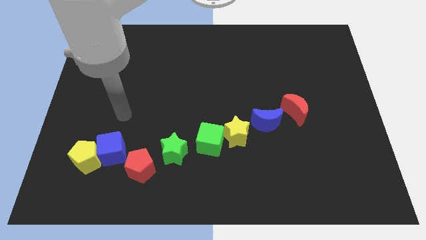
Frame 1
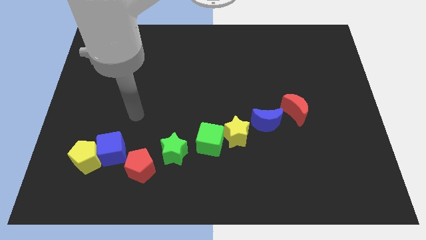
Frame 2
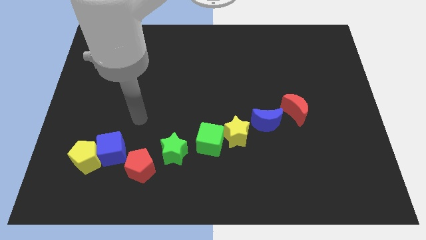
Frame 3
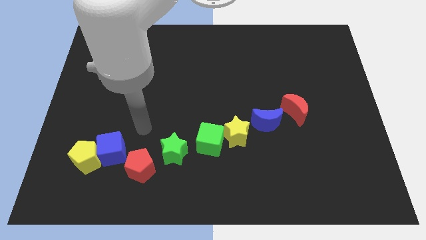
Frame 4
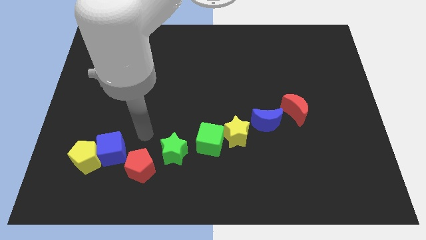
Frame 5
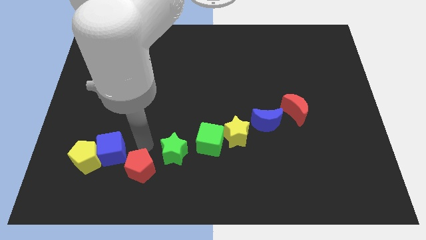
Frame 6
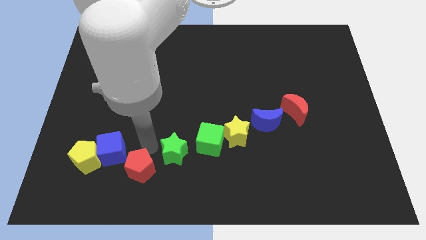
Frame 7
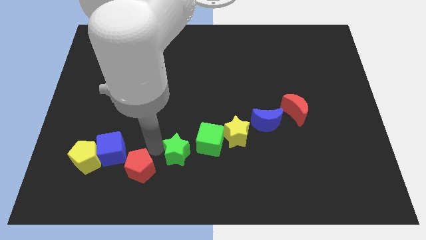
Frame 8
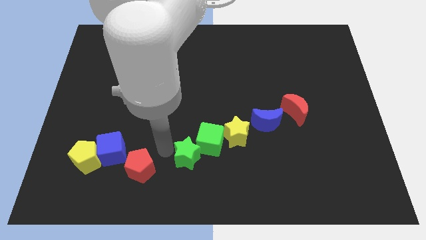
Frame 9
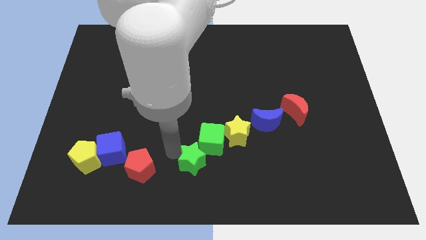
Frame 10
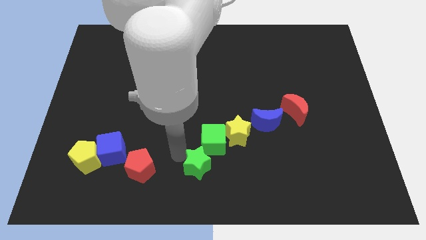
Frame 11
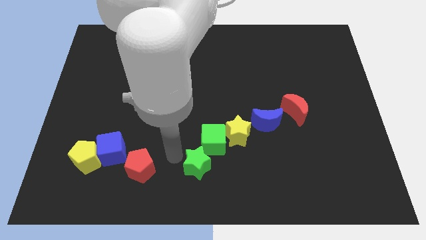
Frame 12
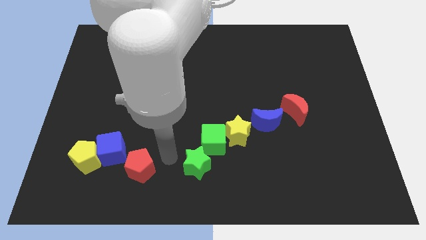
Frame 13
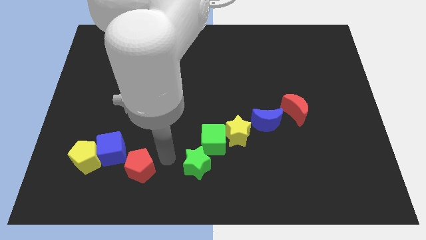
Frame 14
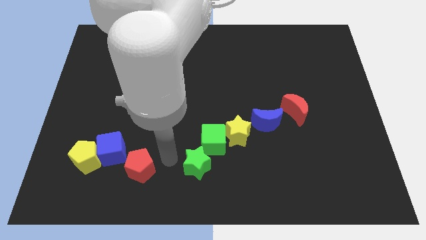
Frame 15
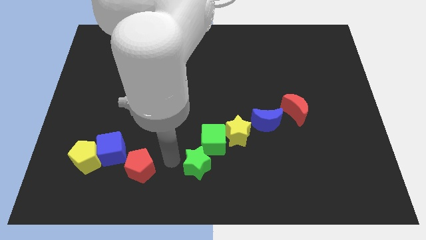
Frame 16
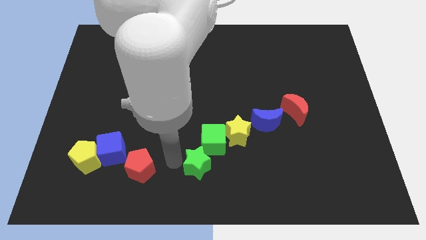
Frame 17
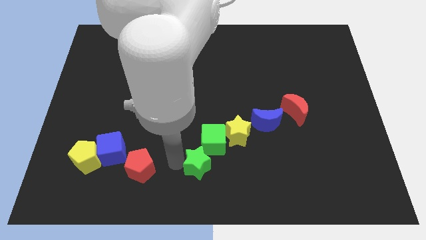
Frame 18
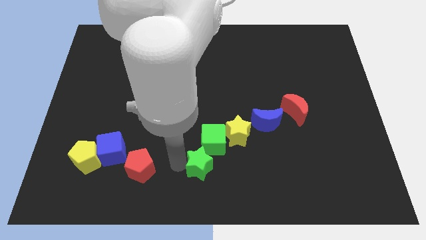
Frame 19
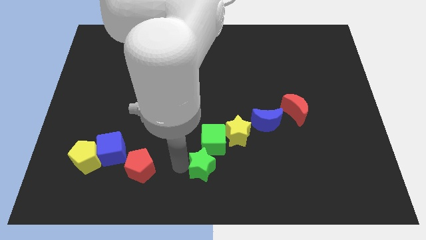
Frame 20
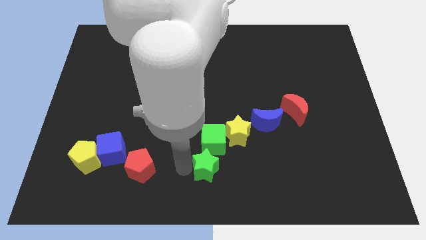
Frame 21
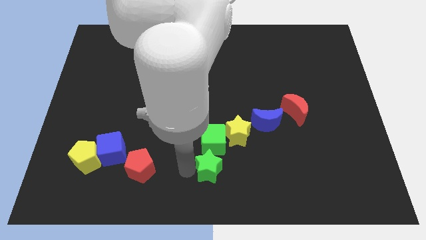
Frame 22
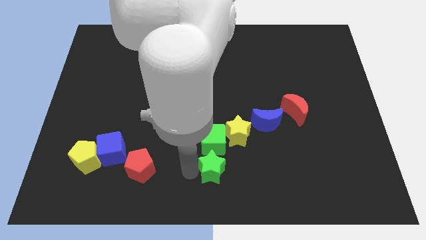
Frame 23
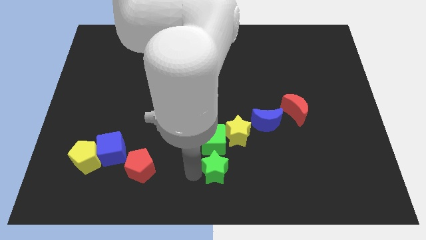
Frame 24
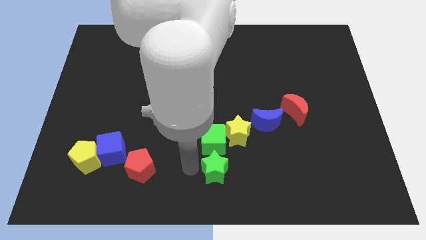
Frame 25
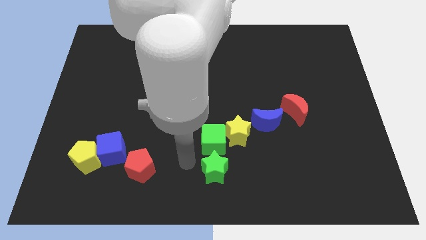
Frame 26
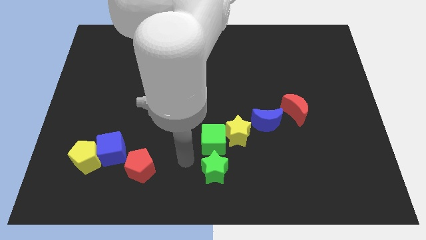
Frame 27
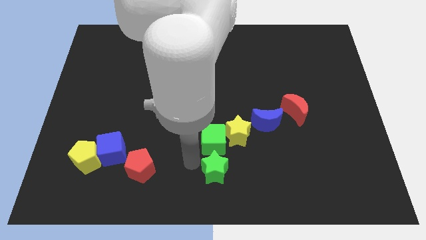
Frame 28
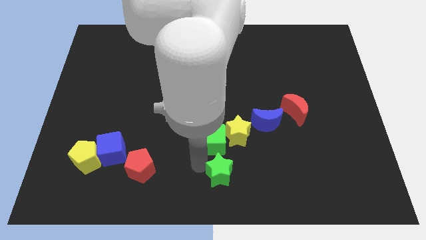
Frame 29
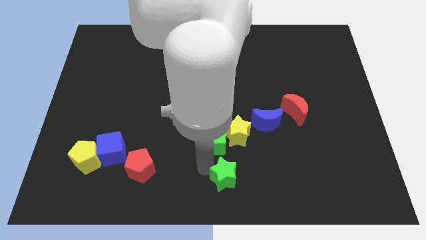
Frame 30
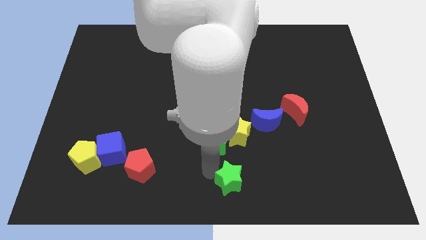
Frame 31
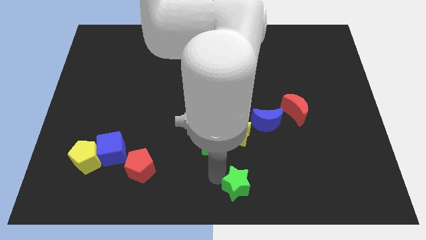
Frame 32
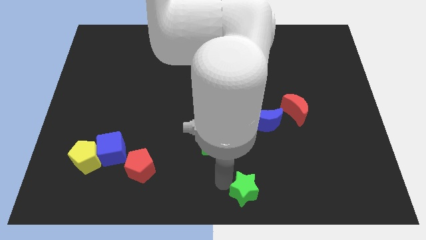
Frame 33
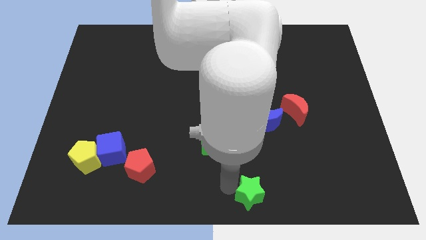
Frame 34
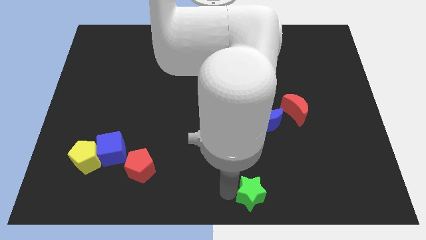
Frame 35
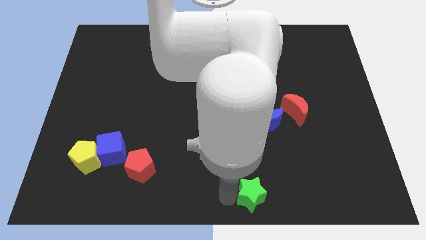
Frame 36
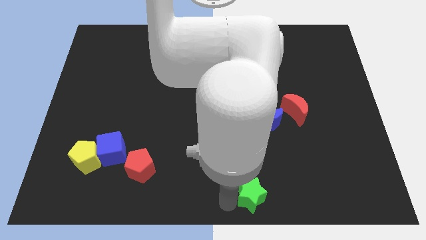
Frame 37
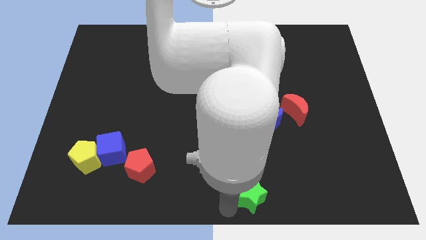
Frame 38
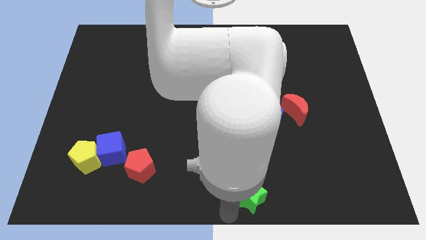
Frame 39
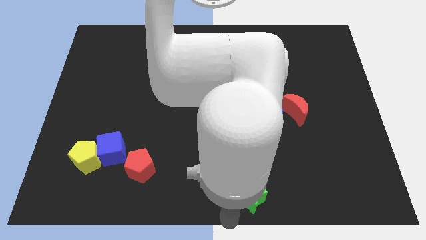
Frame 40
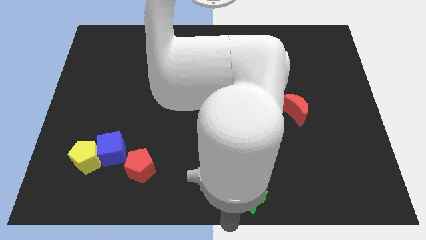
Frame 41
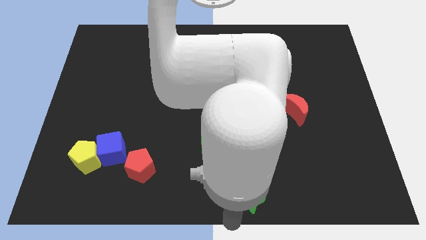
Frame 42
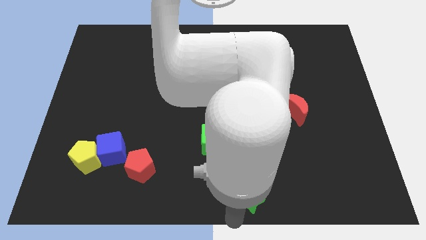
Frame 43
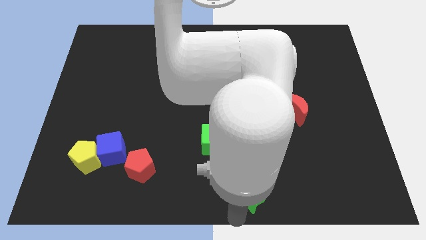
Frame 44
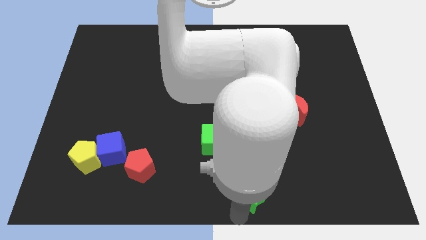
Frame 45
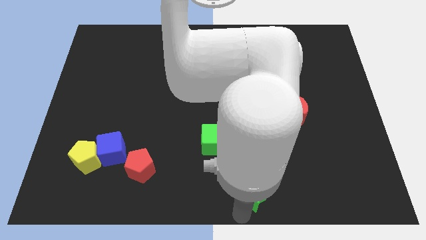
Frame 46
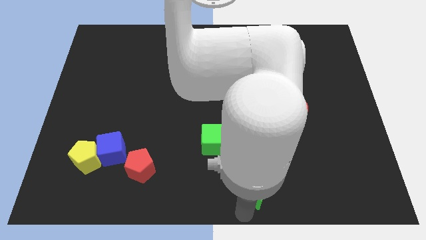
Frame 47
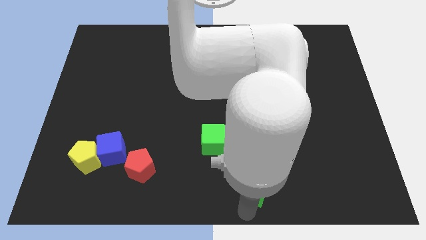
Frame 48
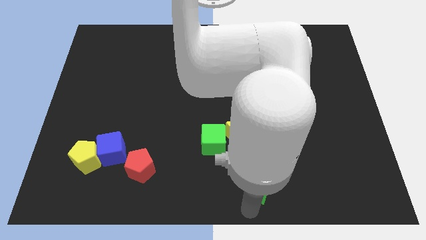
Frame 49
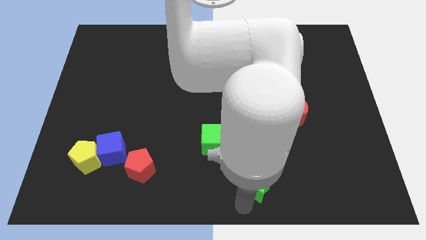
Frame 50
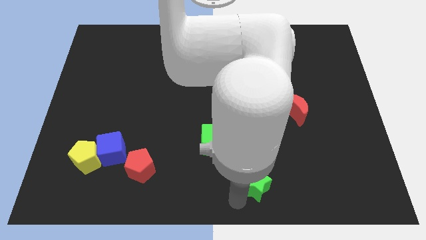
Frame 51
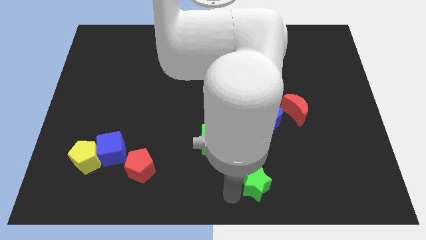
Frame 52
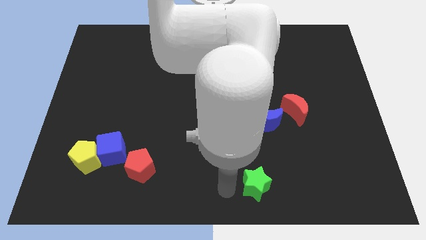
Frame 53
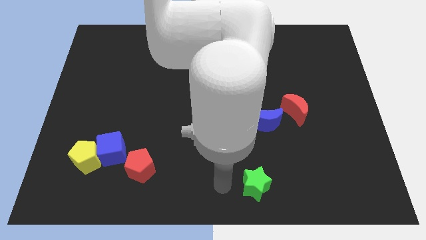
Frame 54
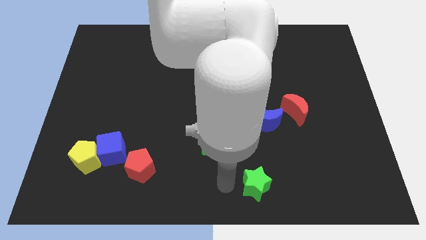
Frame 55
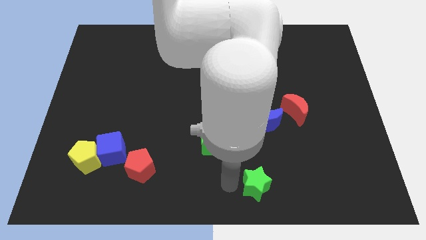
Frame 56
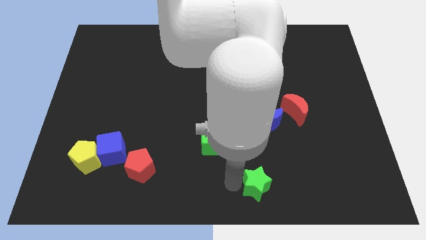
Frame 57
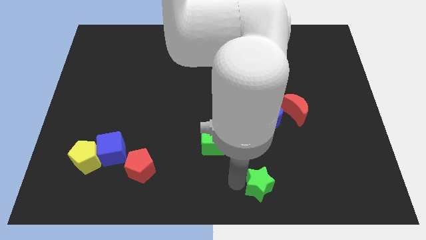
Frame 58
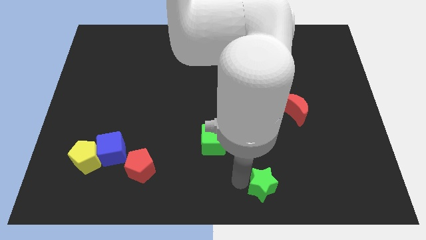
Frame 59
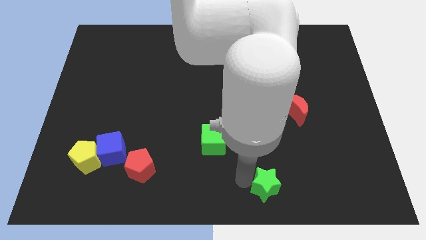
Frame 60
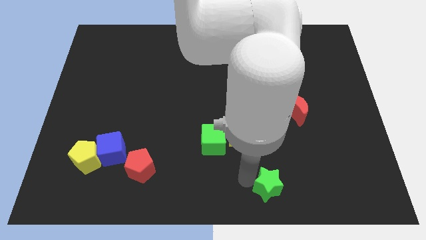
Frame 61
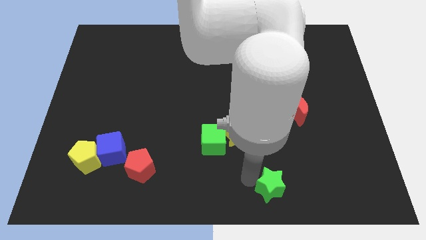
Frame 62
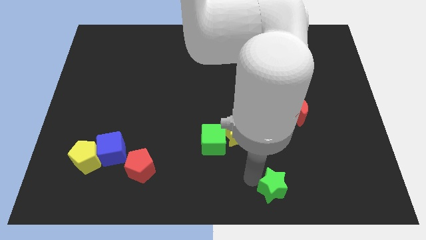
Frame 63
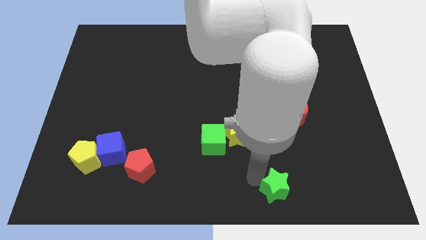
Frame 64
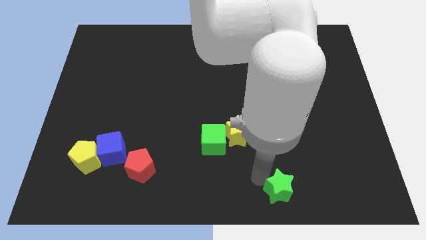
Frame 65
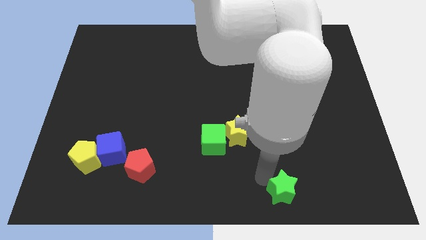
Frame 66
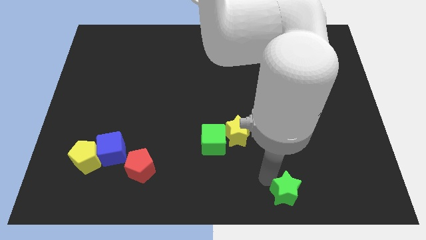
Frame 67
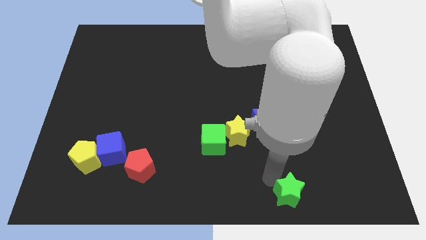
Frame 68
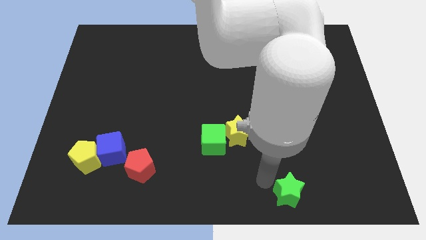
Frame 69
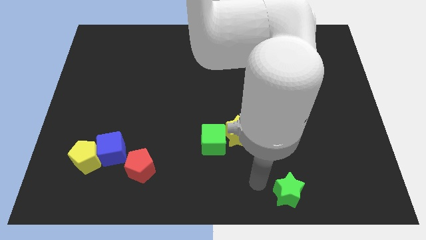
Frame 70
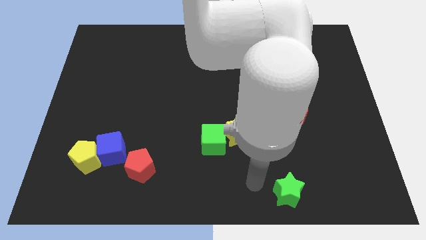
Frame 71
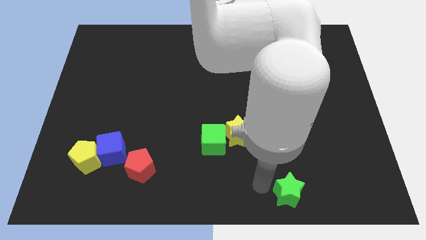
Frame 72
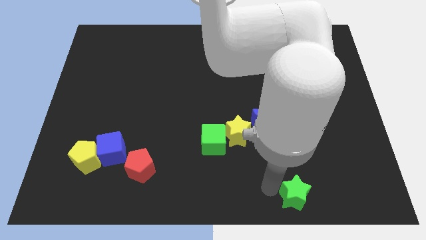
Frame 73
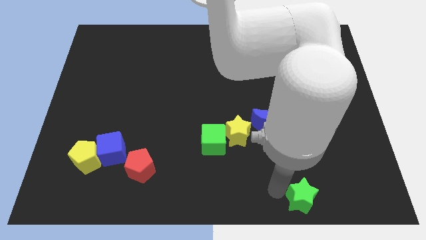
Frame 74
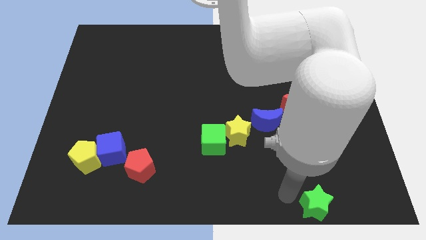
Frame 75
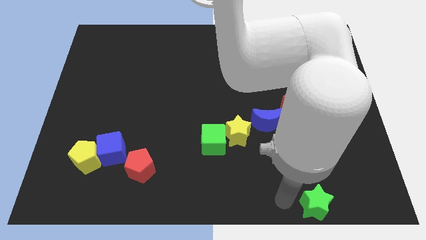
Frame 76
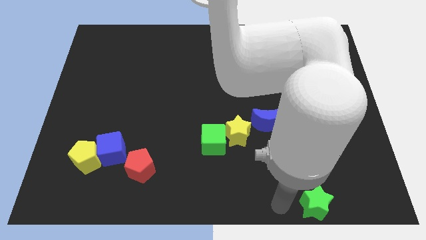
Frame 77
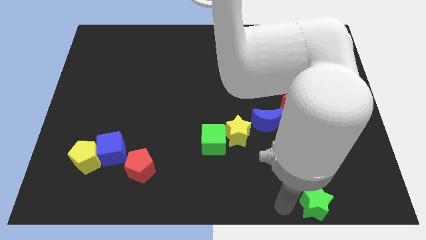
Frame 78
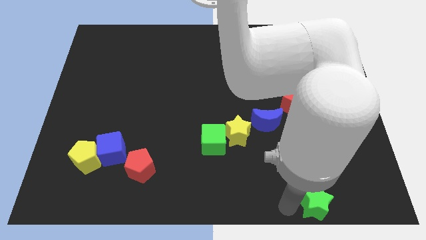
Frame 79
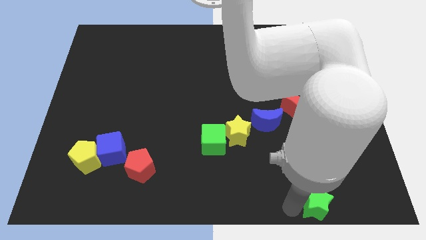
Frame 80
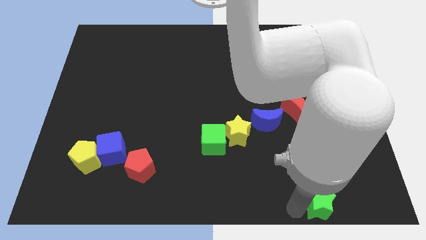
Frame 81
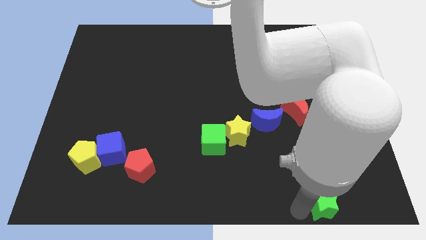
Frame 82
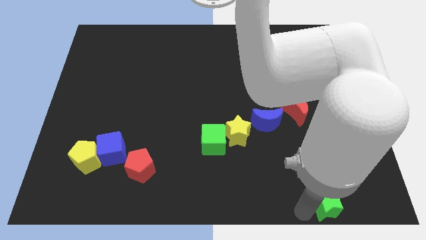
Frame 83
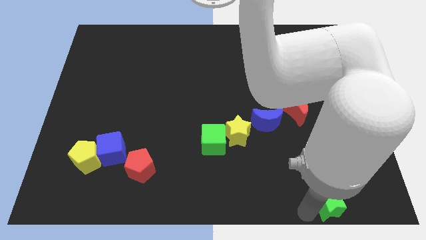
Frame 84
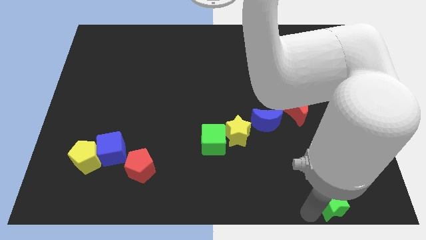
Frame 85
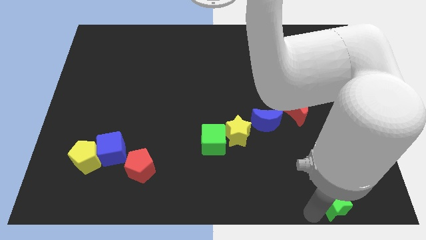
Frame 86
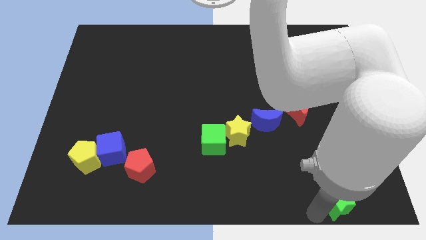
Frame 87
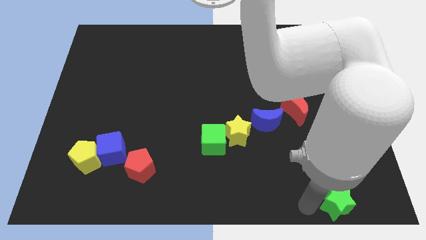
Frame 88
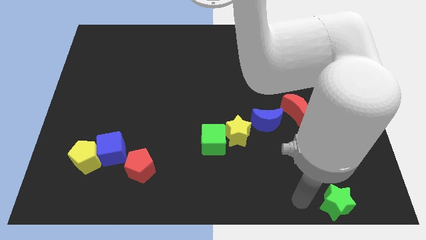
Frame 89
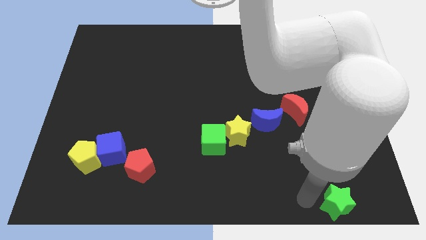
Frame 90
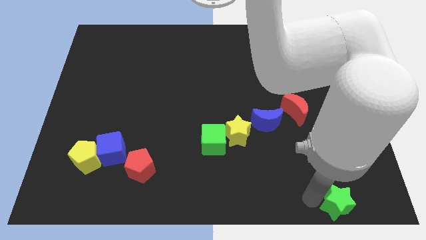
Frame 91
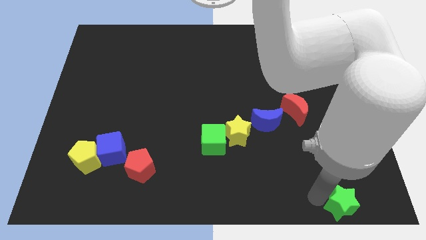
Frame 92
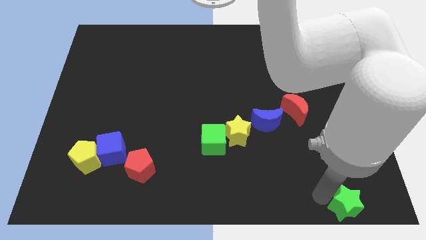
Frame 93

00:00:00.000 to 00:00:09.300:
move the green star to the bottom right
